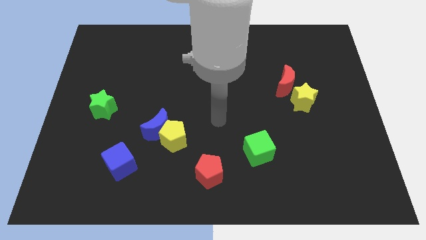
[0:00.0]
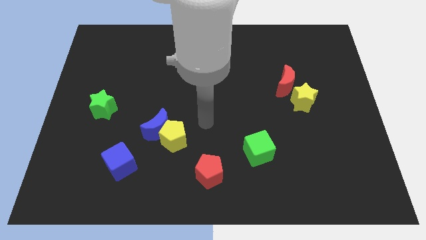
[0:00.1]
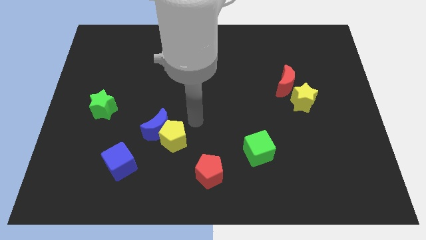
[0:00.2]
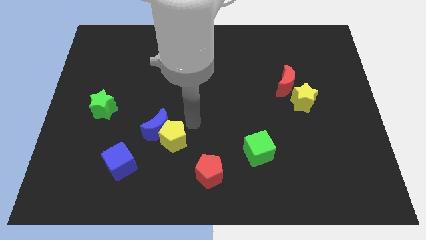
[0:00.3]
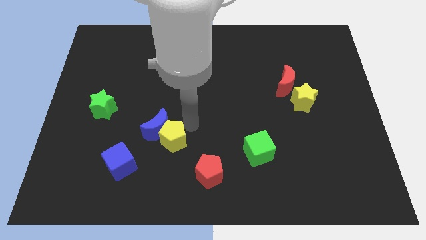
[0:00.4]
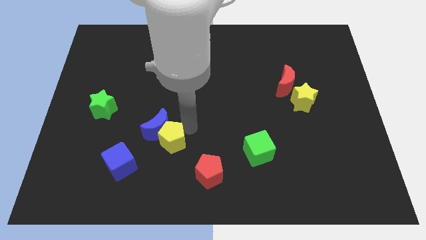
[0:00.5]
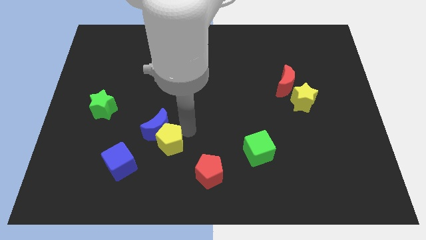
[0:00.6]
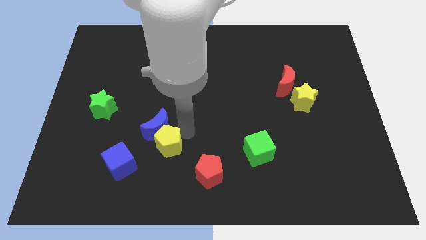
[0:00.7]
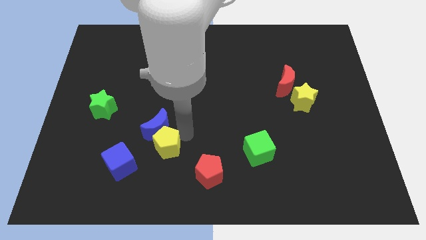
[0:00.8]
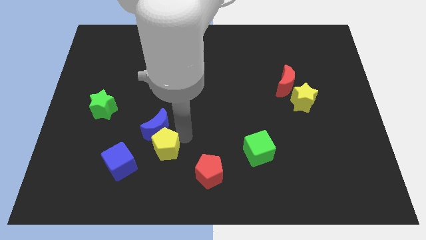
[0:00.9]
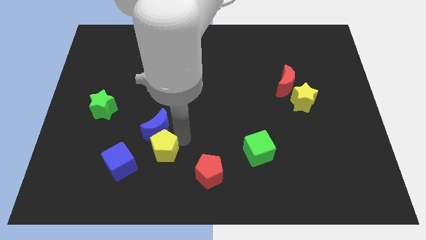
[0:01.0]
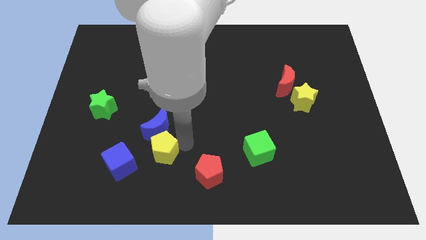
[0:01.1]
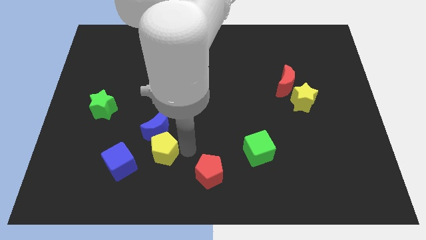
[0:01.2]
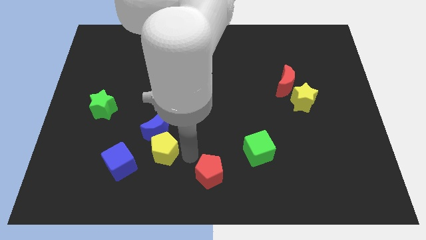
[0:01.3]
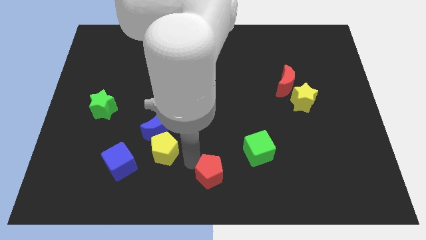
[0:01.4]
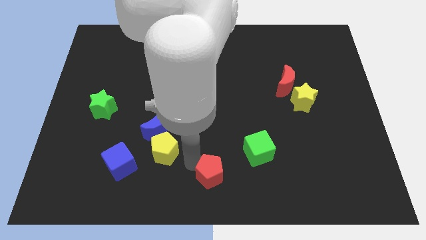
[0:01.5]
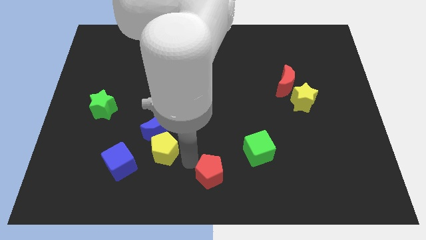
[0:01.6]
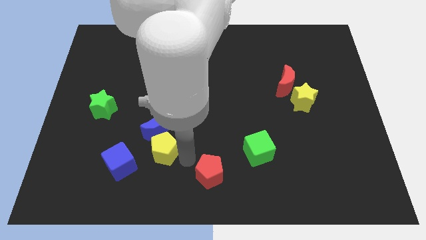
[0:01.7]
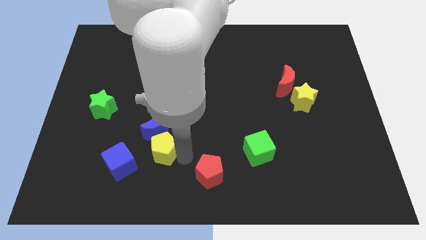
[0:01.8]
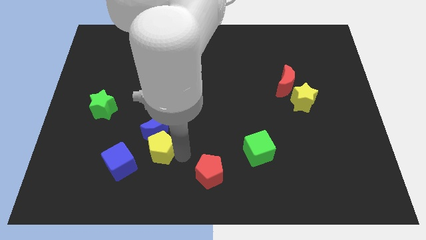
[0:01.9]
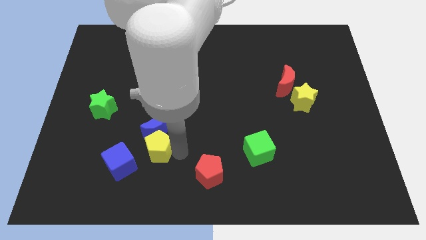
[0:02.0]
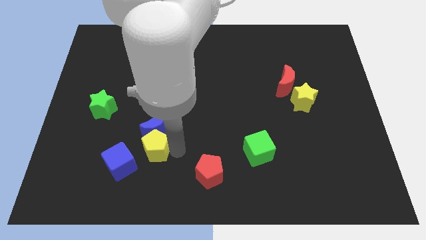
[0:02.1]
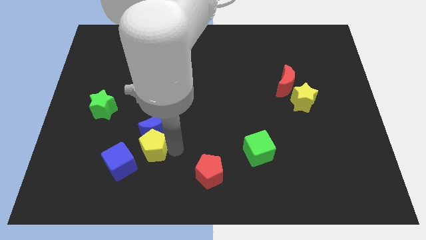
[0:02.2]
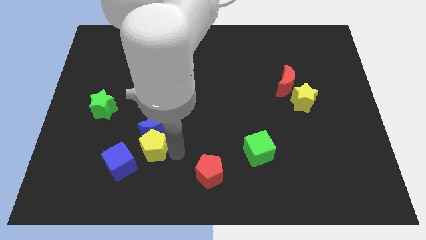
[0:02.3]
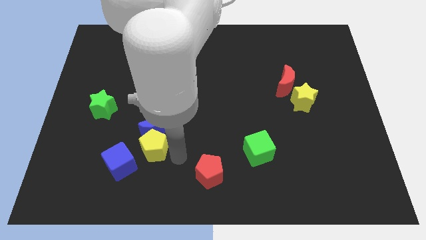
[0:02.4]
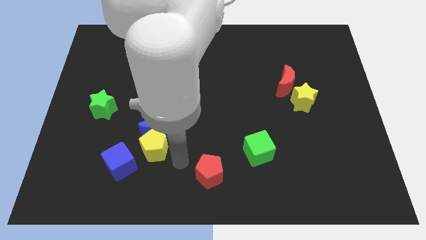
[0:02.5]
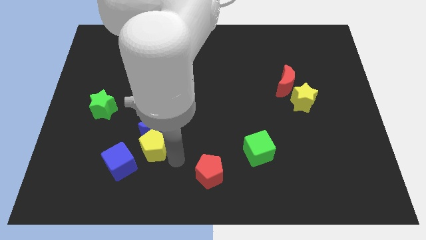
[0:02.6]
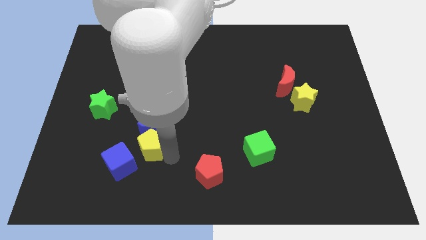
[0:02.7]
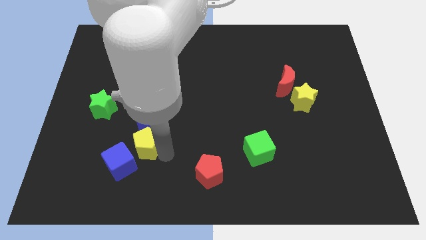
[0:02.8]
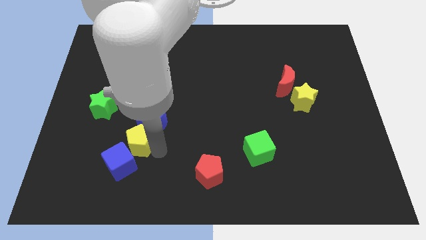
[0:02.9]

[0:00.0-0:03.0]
slide the yellow pentagon slightly to the left

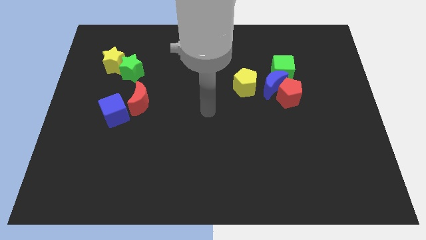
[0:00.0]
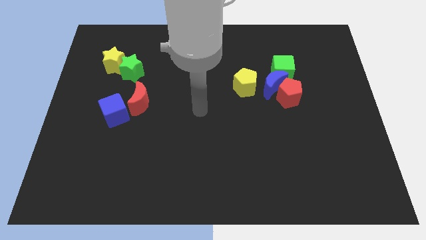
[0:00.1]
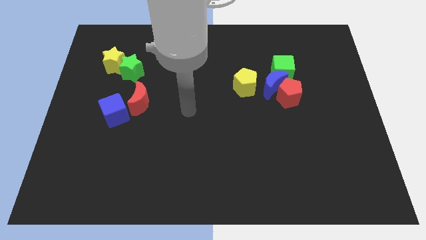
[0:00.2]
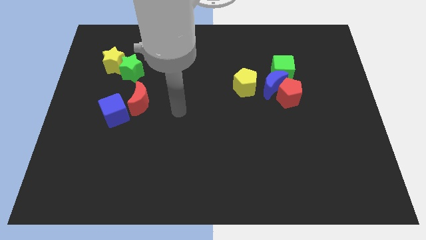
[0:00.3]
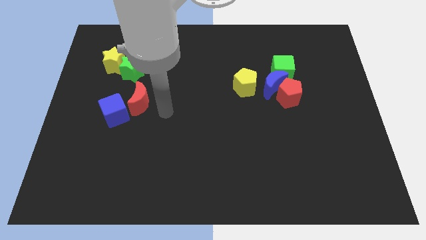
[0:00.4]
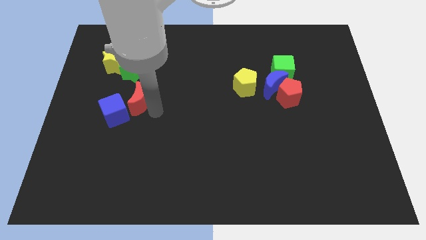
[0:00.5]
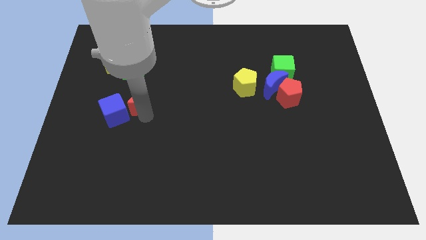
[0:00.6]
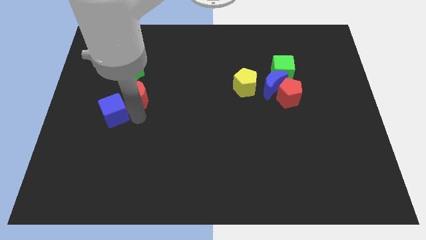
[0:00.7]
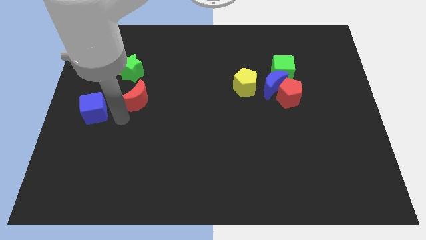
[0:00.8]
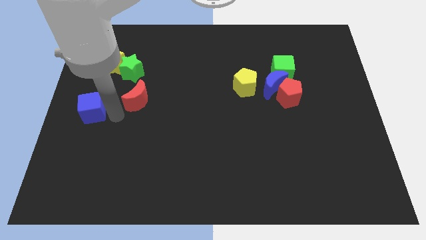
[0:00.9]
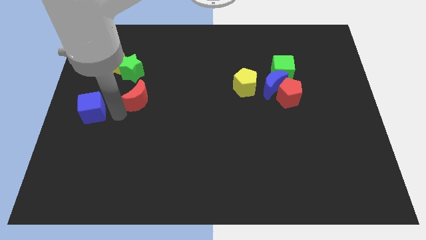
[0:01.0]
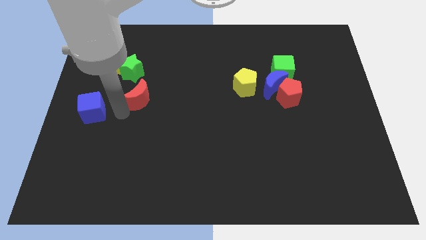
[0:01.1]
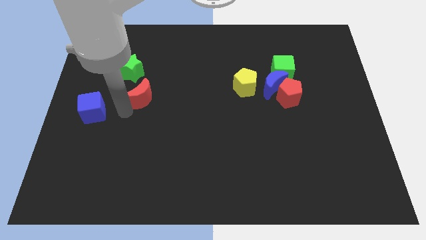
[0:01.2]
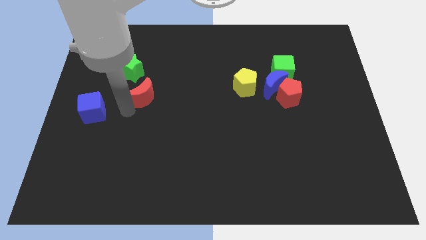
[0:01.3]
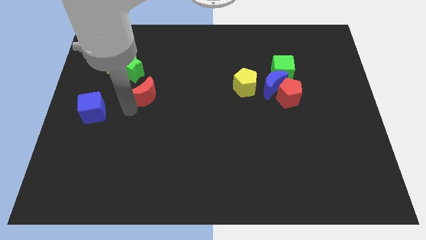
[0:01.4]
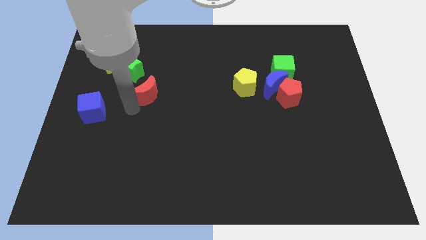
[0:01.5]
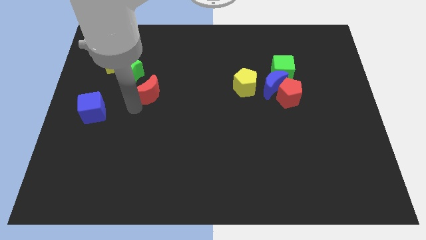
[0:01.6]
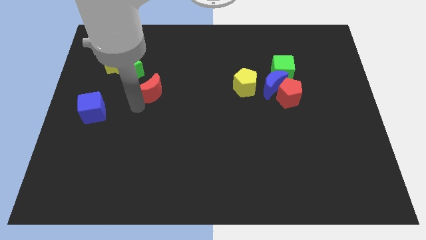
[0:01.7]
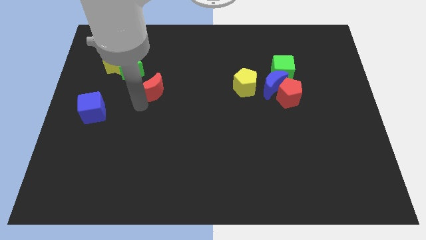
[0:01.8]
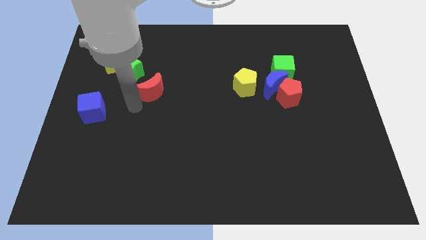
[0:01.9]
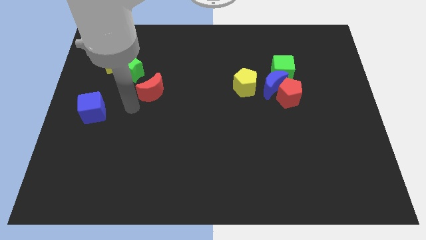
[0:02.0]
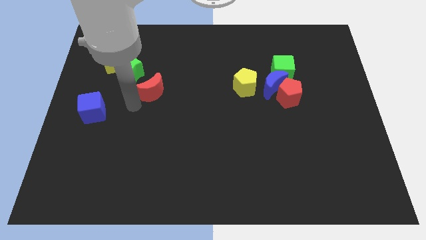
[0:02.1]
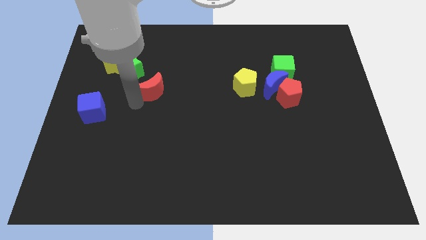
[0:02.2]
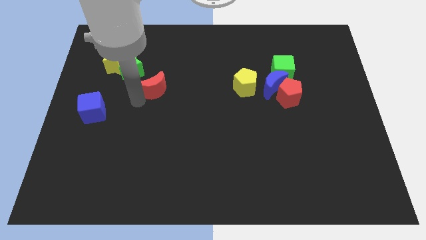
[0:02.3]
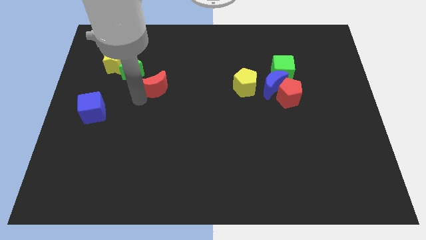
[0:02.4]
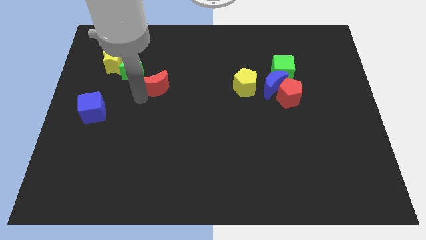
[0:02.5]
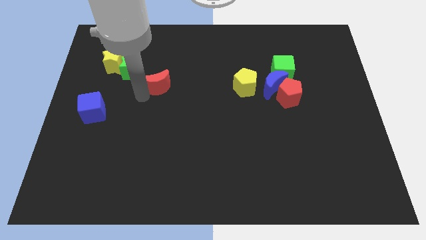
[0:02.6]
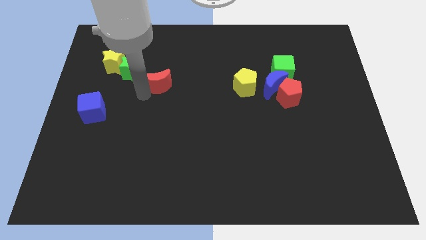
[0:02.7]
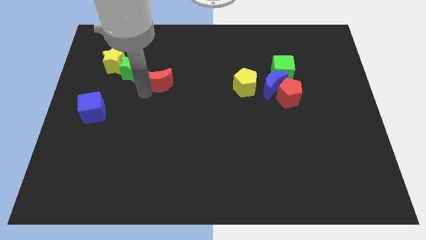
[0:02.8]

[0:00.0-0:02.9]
push the red moon diagonally up and to the right a bit

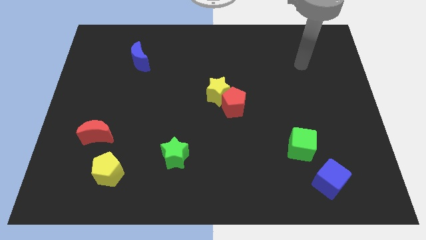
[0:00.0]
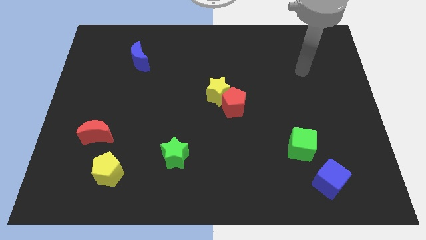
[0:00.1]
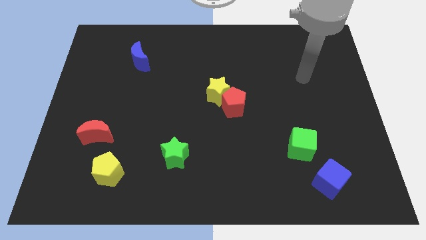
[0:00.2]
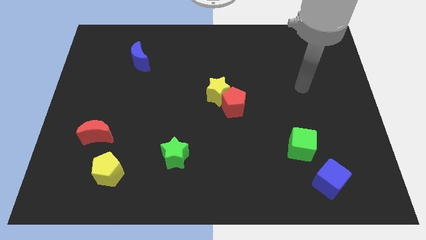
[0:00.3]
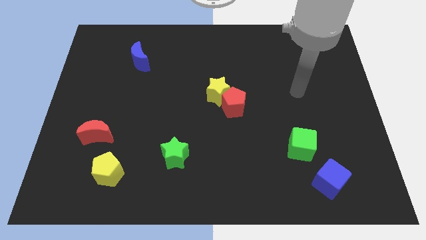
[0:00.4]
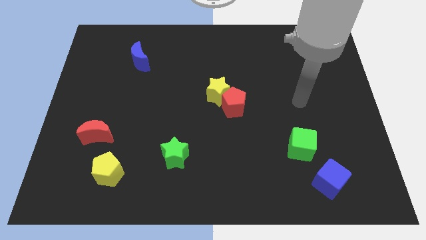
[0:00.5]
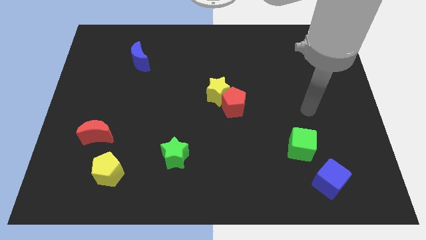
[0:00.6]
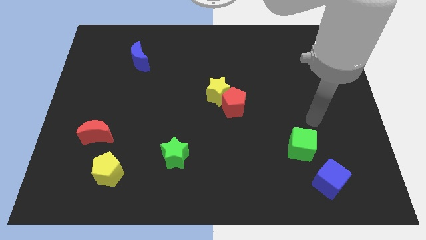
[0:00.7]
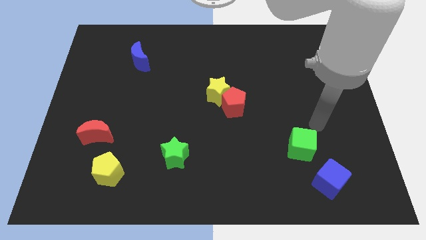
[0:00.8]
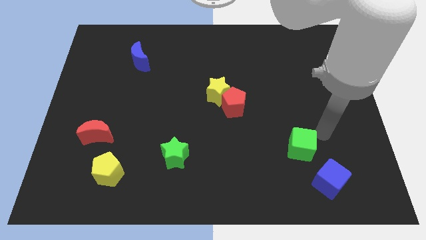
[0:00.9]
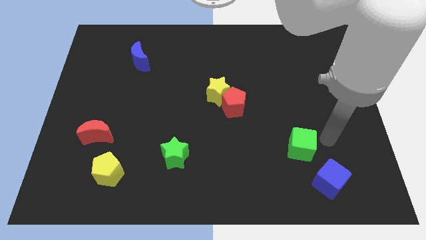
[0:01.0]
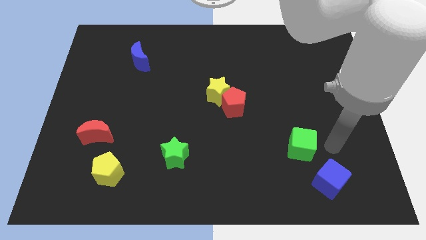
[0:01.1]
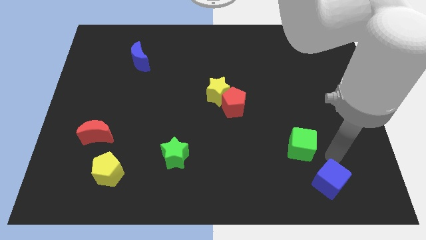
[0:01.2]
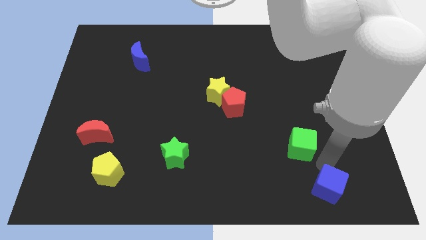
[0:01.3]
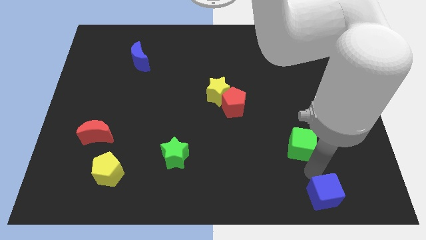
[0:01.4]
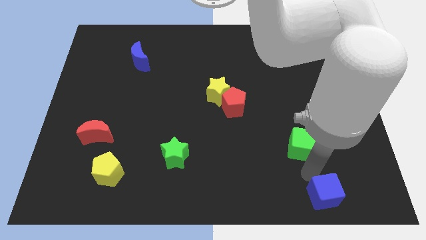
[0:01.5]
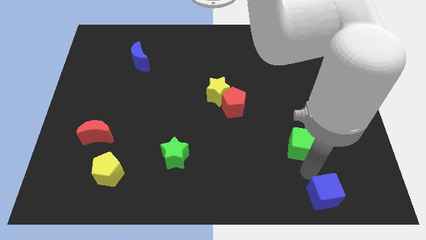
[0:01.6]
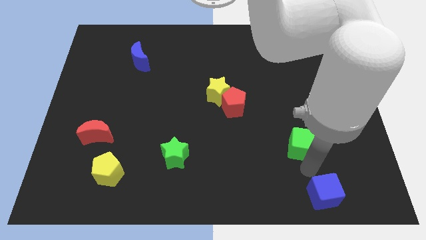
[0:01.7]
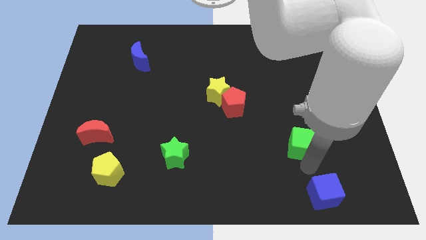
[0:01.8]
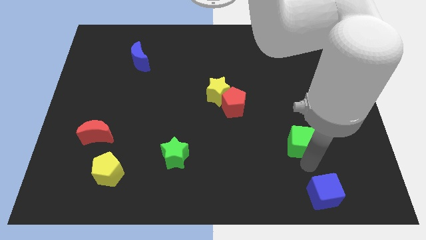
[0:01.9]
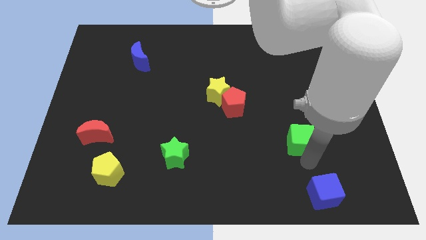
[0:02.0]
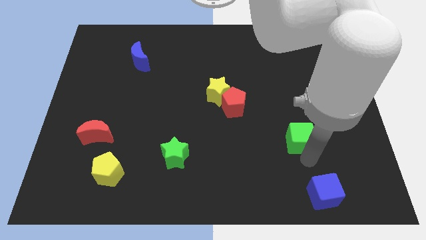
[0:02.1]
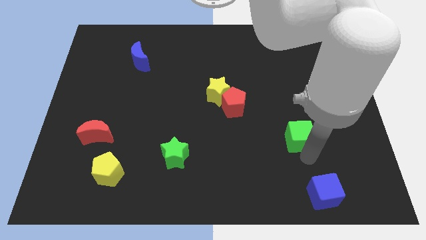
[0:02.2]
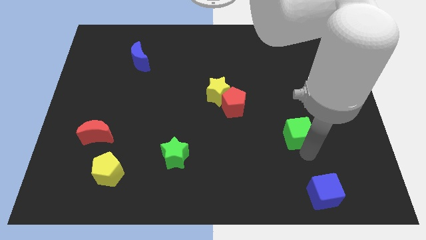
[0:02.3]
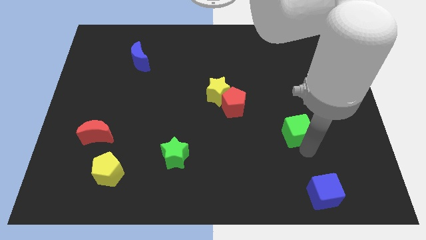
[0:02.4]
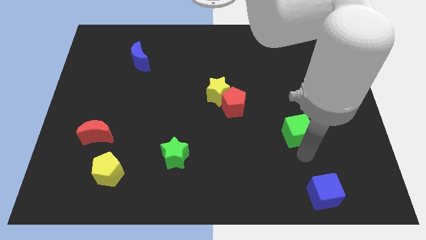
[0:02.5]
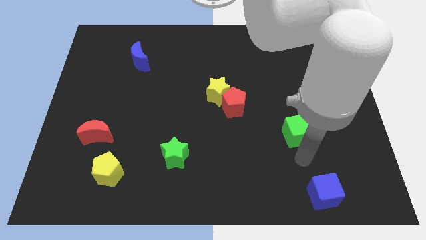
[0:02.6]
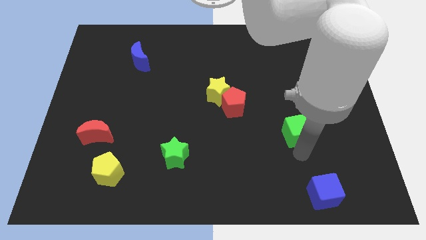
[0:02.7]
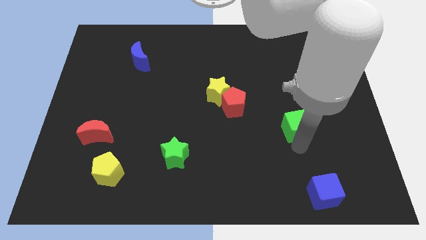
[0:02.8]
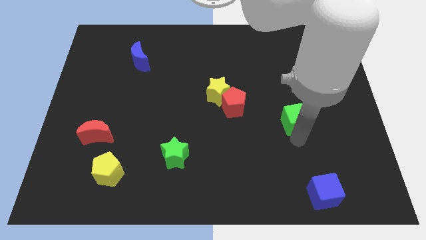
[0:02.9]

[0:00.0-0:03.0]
slightly push the green cube up
